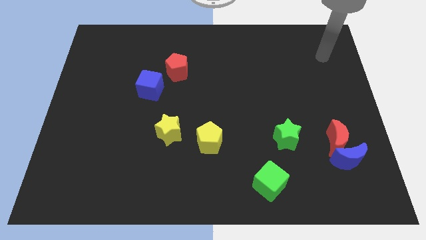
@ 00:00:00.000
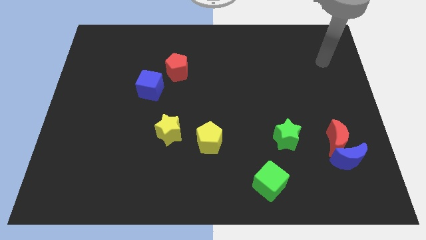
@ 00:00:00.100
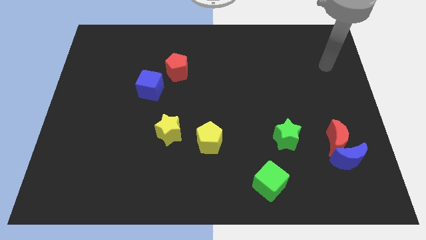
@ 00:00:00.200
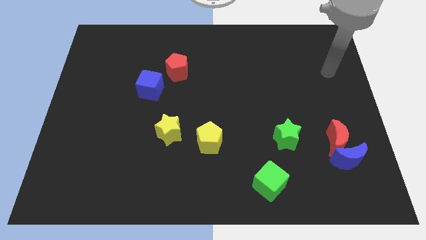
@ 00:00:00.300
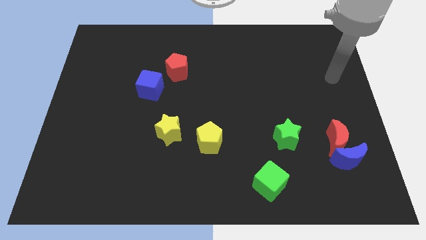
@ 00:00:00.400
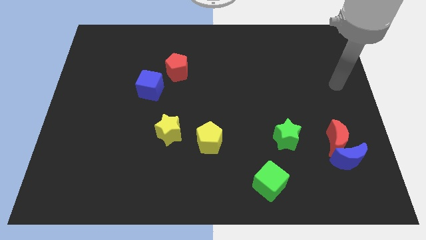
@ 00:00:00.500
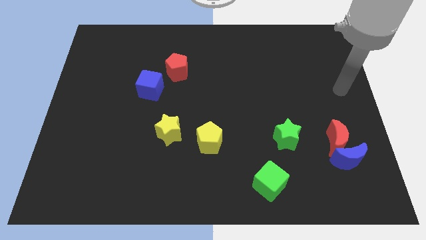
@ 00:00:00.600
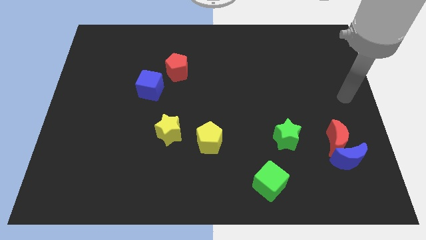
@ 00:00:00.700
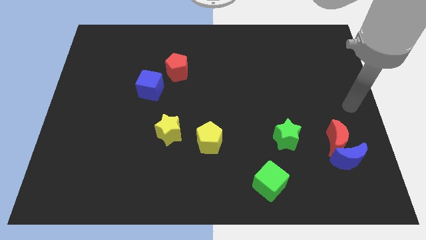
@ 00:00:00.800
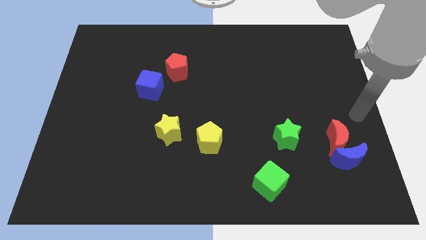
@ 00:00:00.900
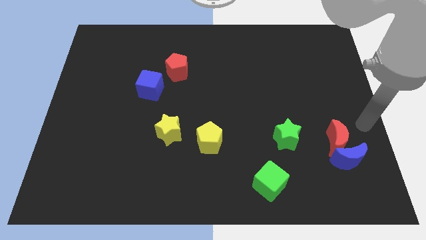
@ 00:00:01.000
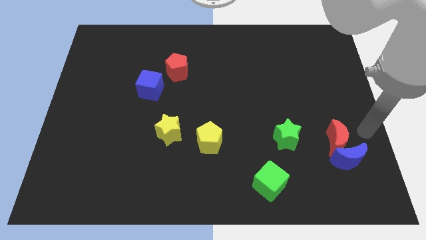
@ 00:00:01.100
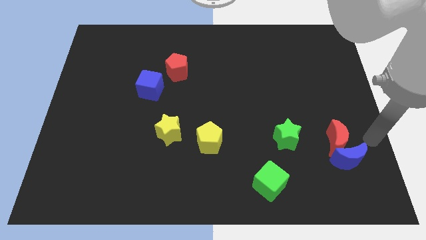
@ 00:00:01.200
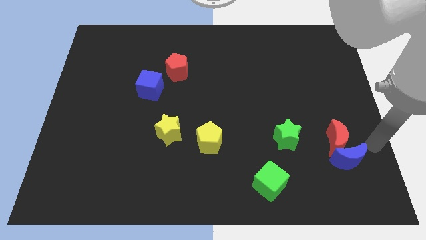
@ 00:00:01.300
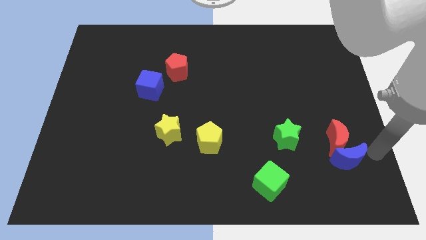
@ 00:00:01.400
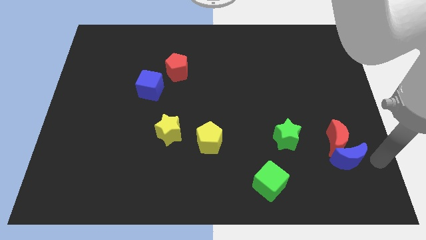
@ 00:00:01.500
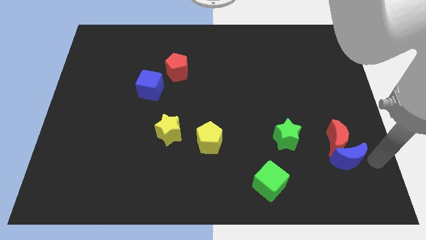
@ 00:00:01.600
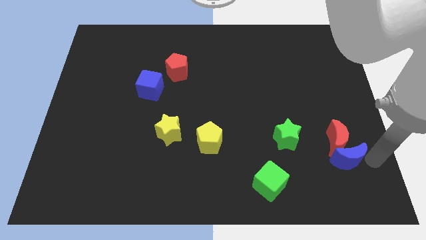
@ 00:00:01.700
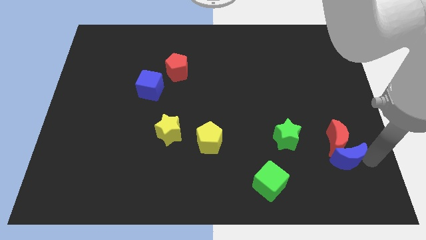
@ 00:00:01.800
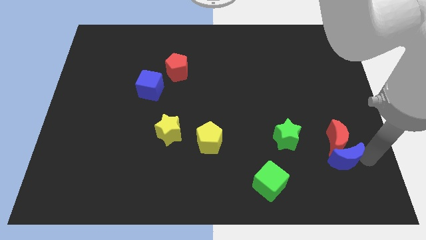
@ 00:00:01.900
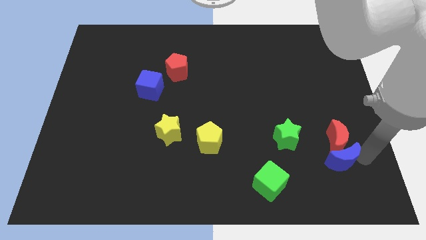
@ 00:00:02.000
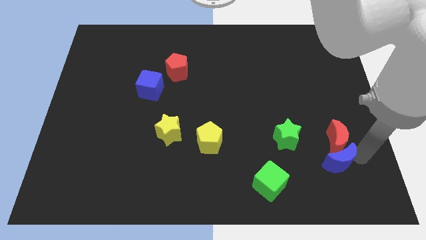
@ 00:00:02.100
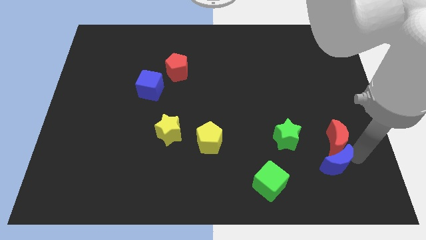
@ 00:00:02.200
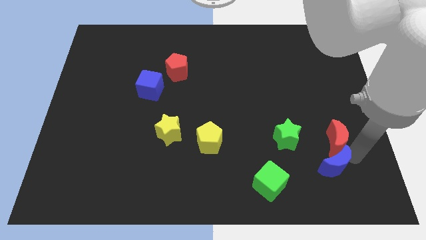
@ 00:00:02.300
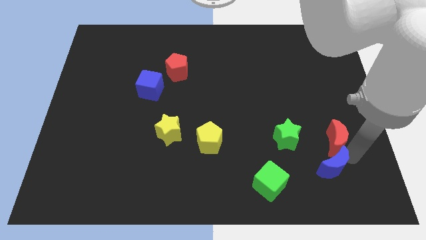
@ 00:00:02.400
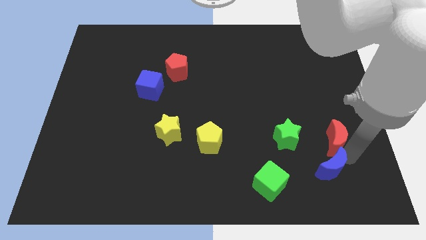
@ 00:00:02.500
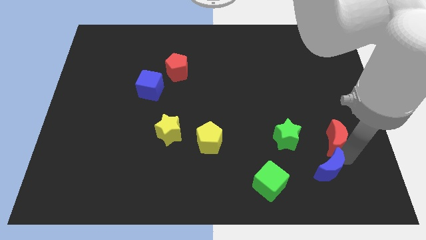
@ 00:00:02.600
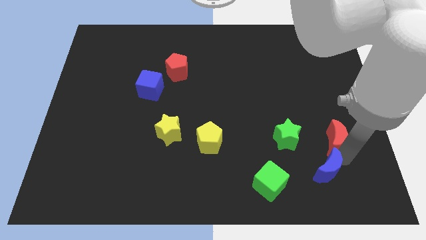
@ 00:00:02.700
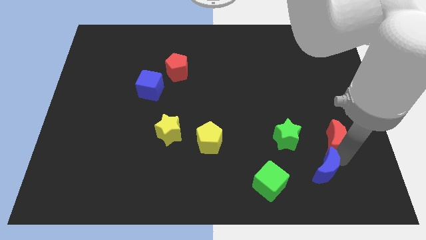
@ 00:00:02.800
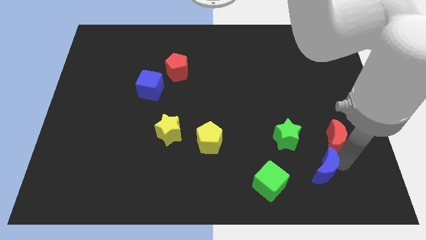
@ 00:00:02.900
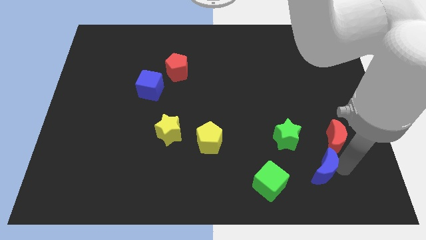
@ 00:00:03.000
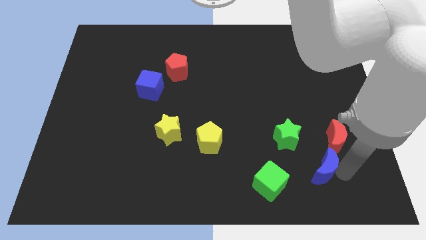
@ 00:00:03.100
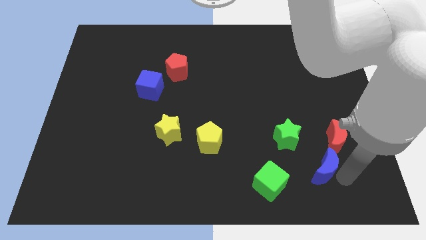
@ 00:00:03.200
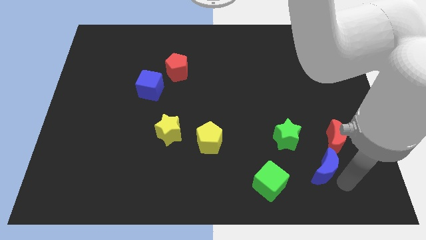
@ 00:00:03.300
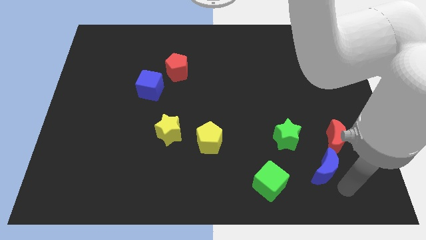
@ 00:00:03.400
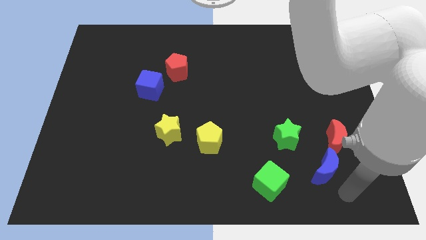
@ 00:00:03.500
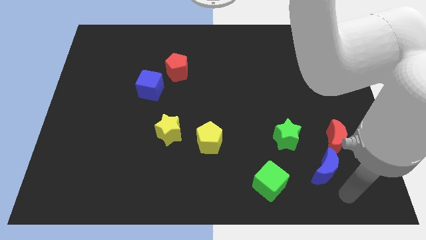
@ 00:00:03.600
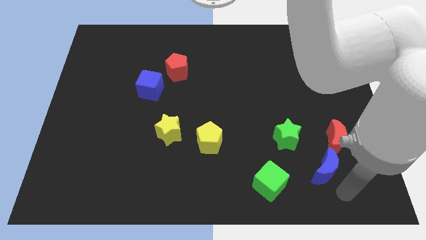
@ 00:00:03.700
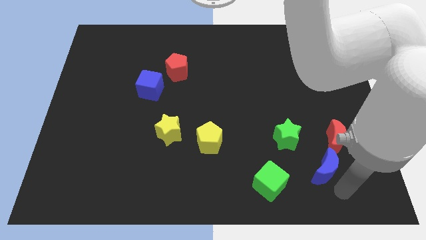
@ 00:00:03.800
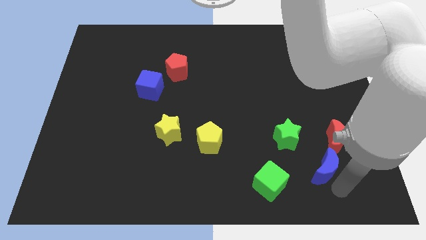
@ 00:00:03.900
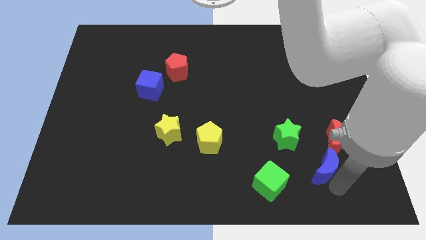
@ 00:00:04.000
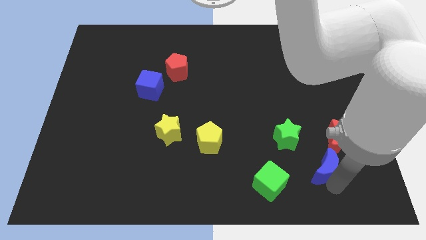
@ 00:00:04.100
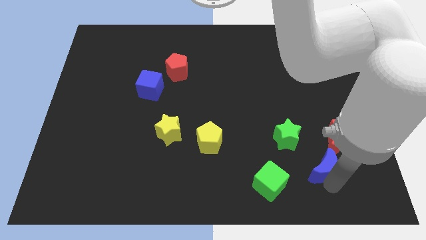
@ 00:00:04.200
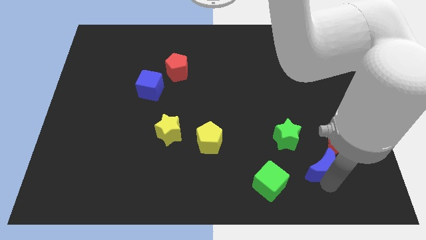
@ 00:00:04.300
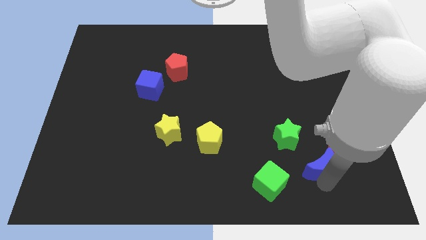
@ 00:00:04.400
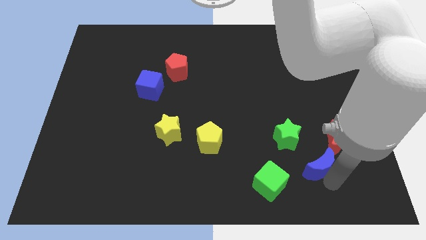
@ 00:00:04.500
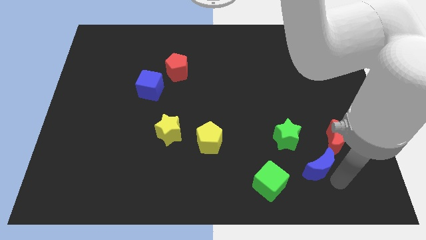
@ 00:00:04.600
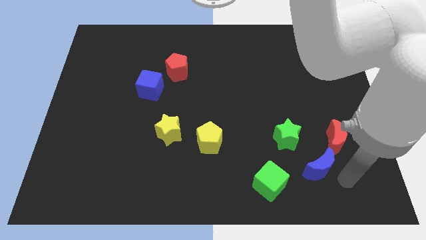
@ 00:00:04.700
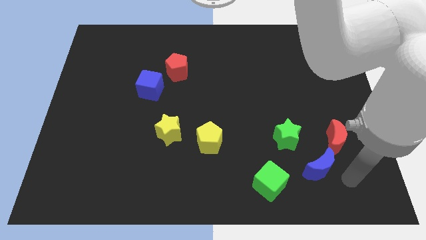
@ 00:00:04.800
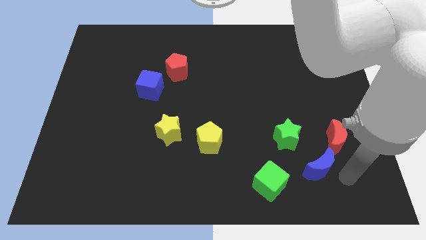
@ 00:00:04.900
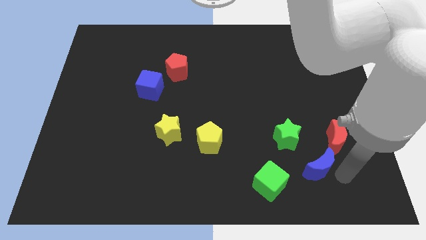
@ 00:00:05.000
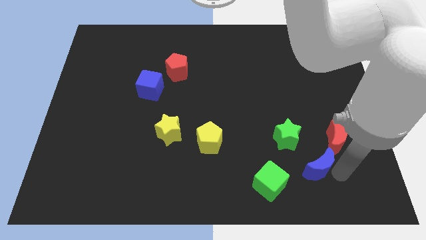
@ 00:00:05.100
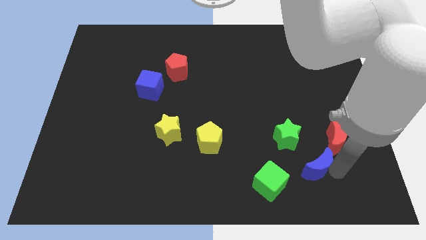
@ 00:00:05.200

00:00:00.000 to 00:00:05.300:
slide the blue moon left a little

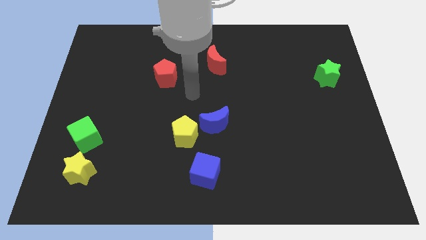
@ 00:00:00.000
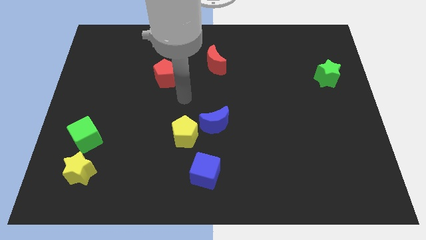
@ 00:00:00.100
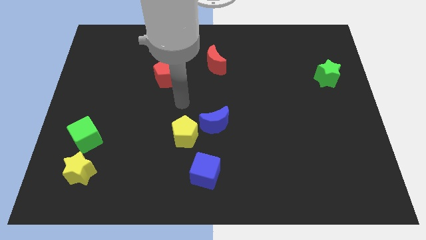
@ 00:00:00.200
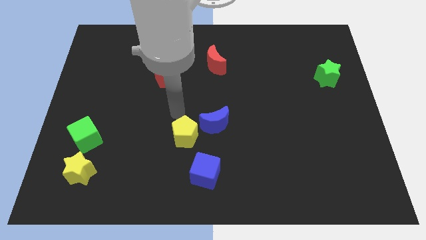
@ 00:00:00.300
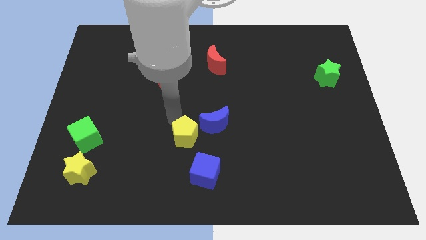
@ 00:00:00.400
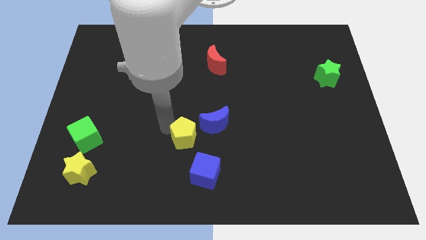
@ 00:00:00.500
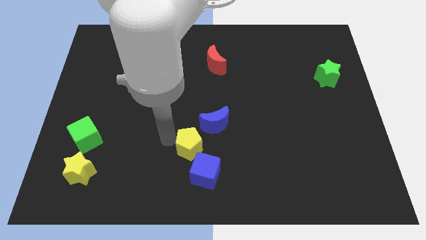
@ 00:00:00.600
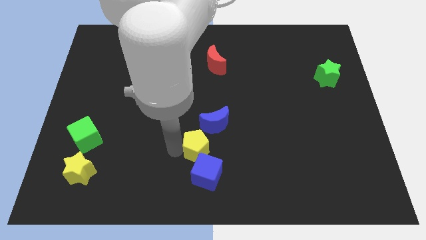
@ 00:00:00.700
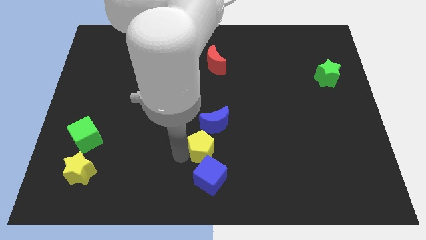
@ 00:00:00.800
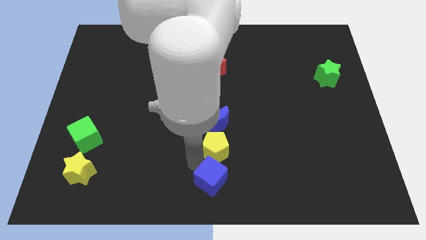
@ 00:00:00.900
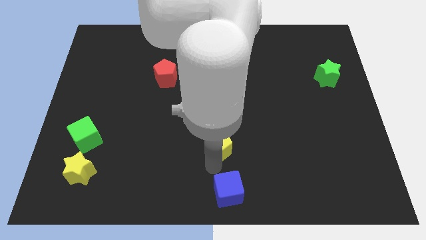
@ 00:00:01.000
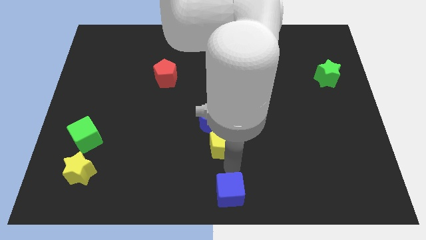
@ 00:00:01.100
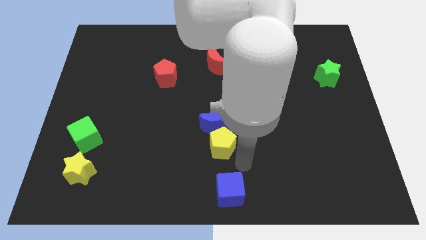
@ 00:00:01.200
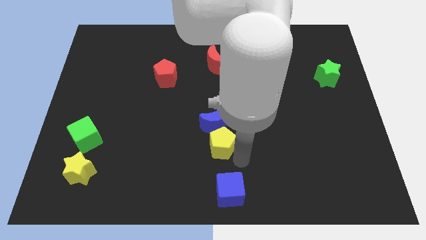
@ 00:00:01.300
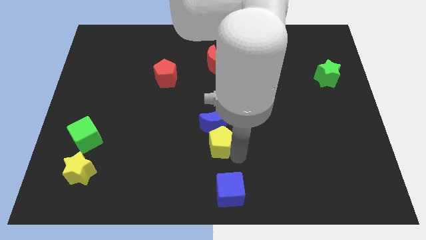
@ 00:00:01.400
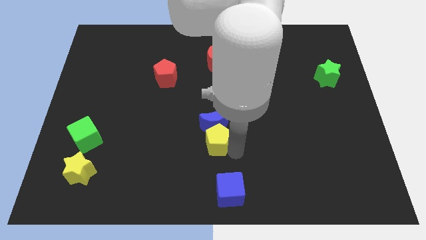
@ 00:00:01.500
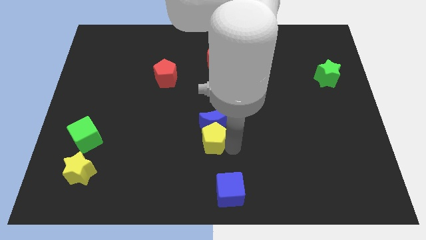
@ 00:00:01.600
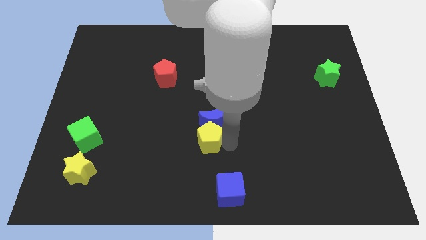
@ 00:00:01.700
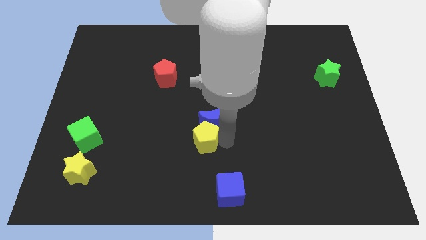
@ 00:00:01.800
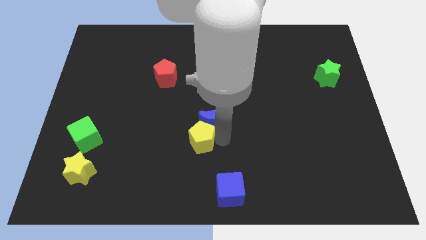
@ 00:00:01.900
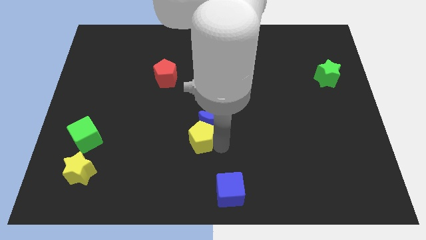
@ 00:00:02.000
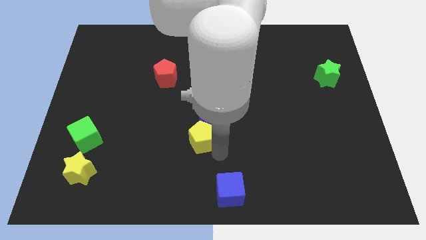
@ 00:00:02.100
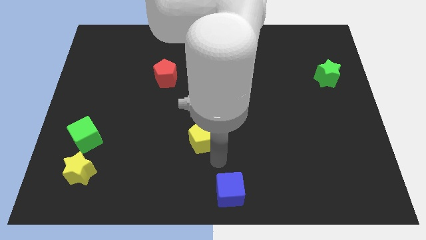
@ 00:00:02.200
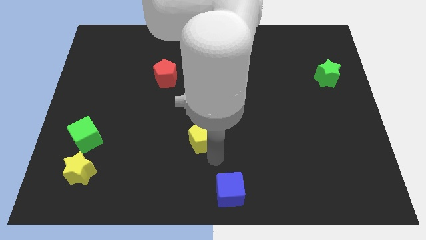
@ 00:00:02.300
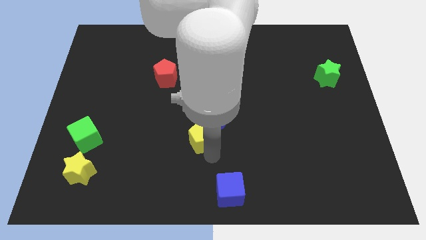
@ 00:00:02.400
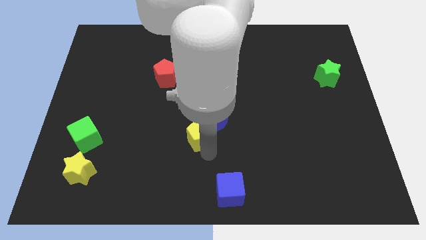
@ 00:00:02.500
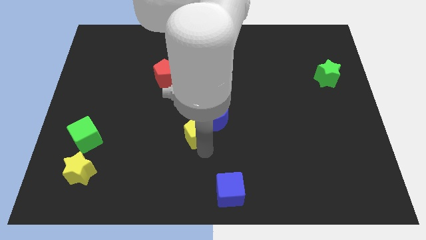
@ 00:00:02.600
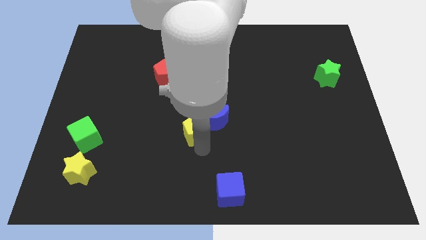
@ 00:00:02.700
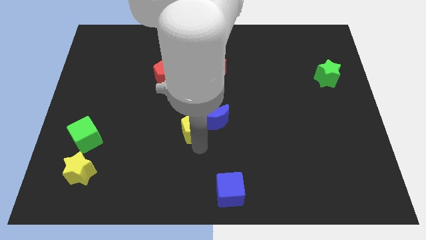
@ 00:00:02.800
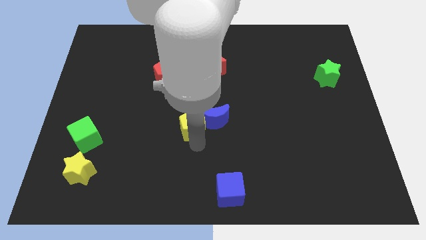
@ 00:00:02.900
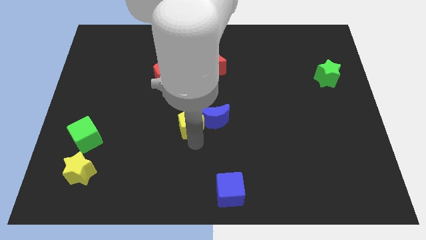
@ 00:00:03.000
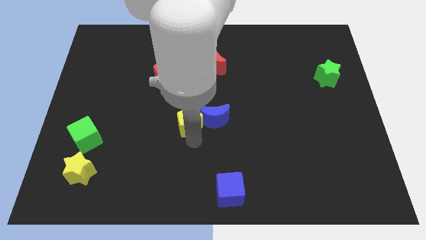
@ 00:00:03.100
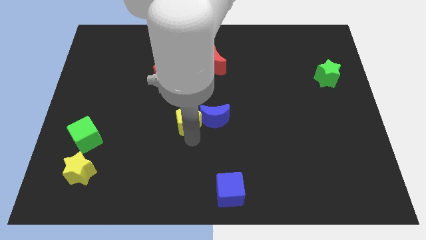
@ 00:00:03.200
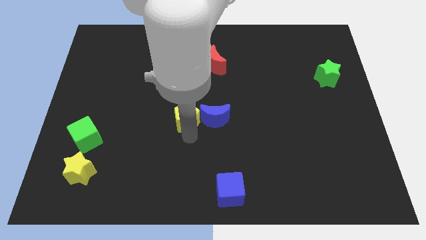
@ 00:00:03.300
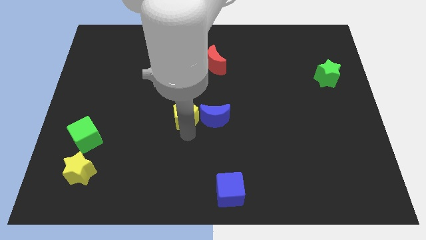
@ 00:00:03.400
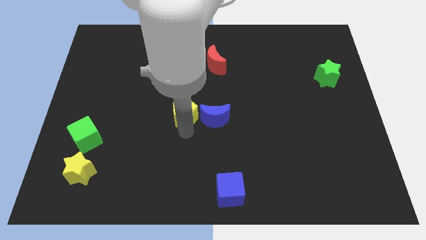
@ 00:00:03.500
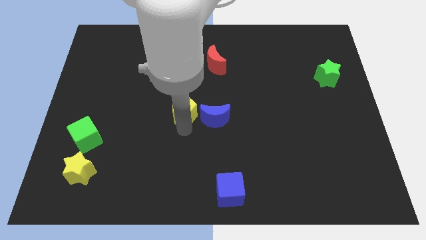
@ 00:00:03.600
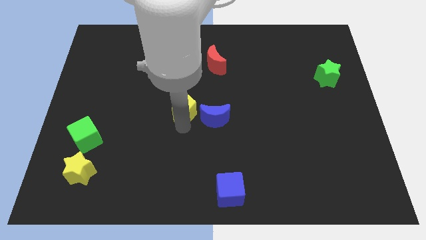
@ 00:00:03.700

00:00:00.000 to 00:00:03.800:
slightly push the yellow pentagon up
